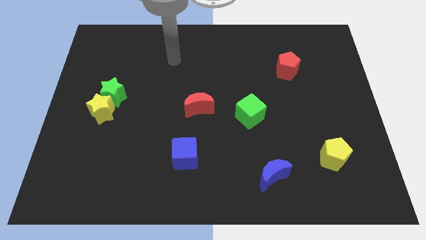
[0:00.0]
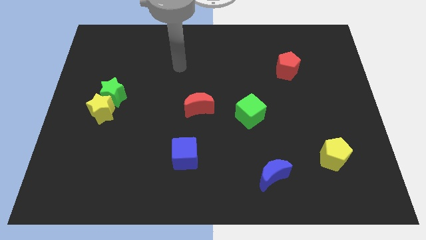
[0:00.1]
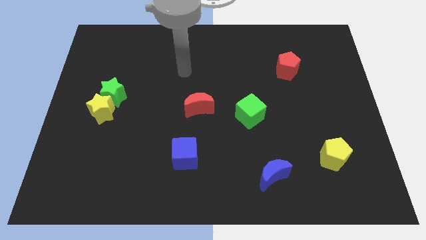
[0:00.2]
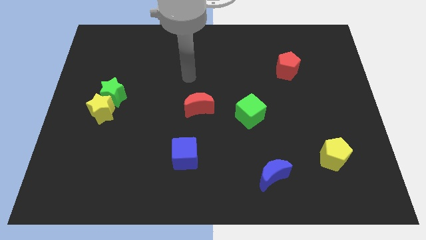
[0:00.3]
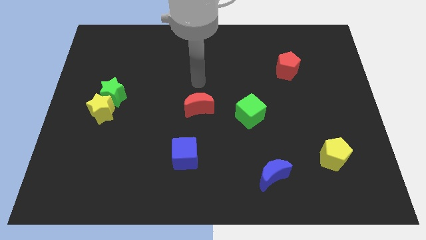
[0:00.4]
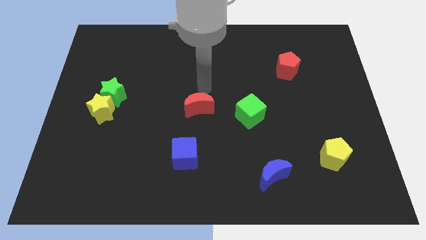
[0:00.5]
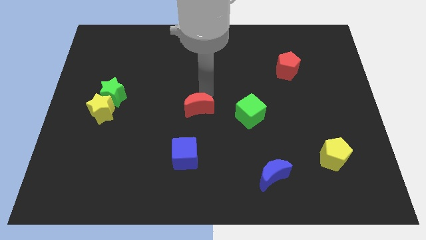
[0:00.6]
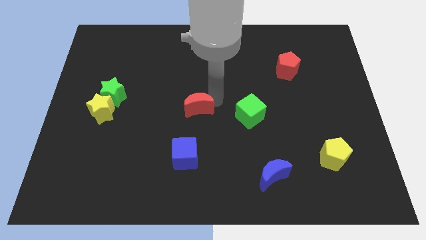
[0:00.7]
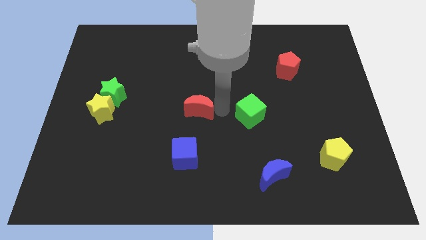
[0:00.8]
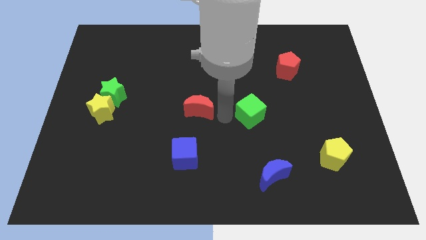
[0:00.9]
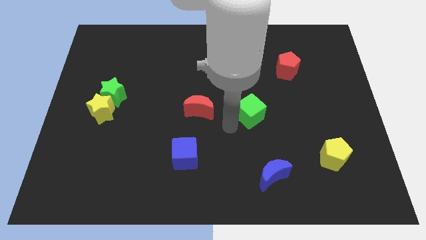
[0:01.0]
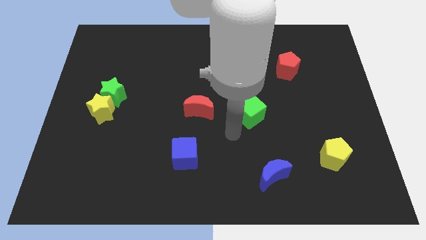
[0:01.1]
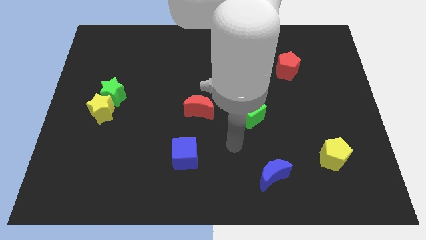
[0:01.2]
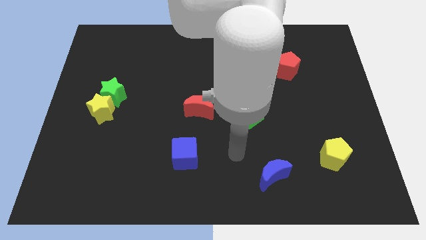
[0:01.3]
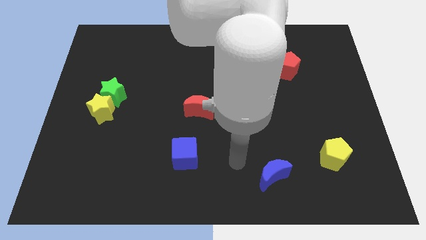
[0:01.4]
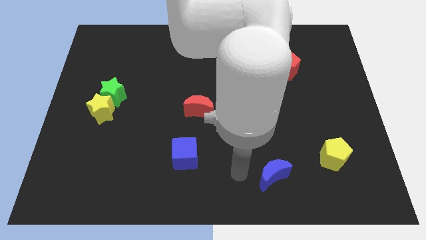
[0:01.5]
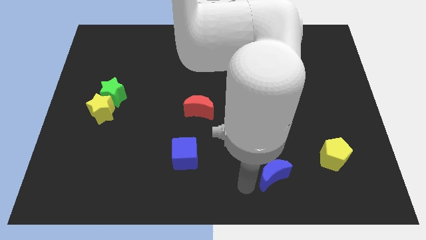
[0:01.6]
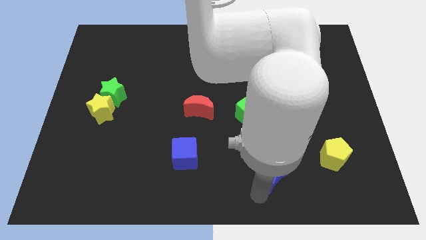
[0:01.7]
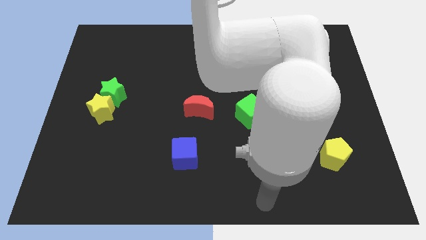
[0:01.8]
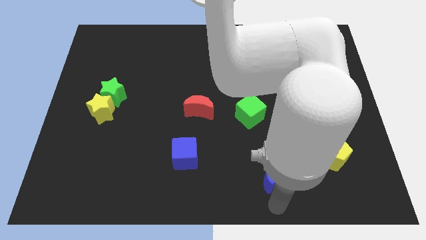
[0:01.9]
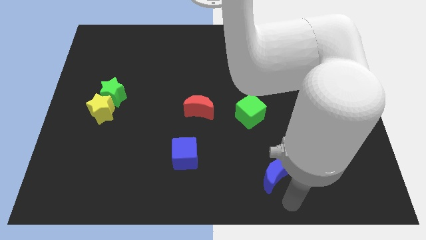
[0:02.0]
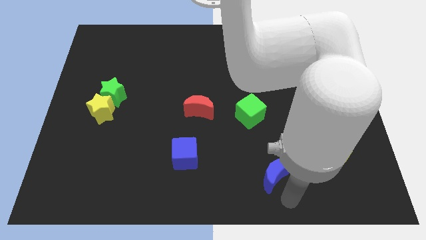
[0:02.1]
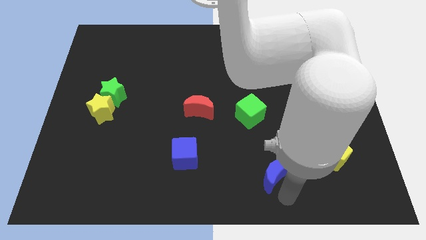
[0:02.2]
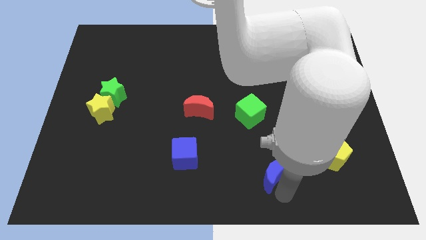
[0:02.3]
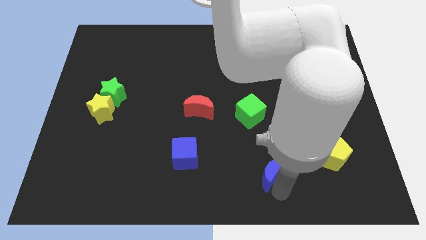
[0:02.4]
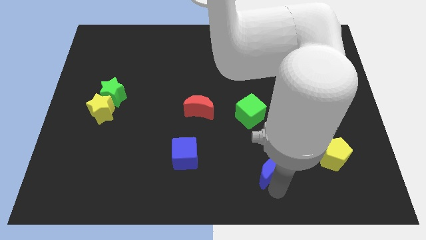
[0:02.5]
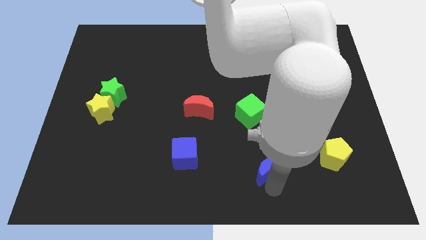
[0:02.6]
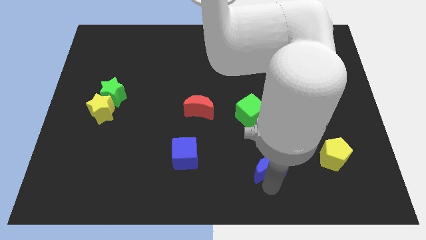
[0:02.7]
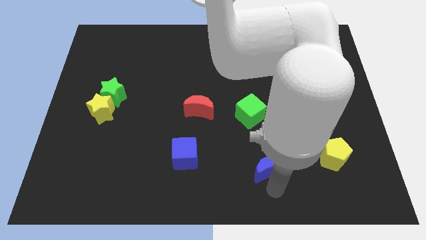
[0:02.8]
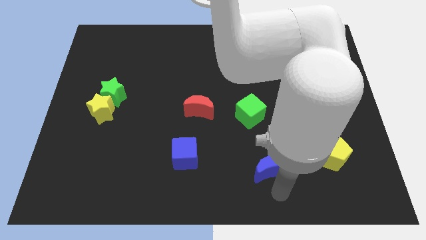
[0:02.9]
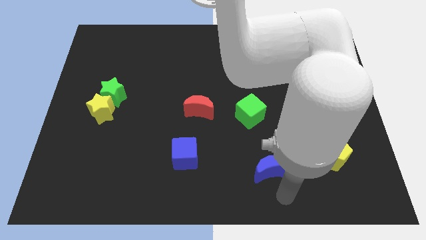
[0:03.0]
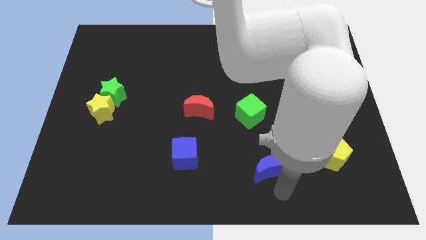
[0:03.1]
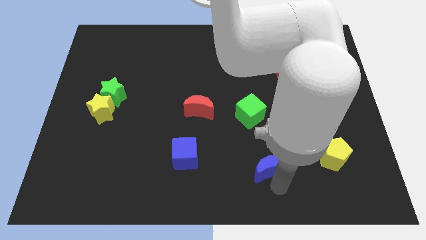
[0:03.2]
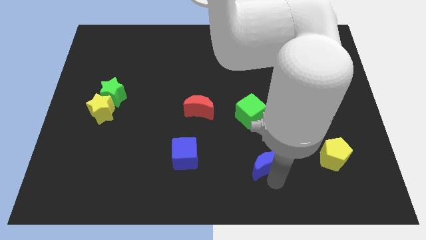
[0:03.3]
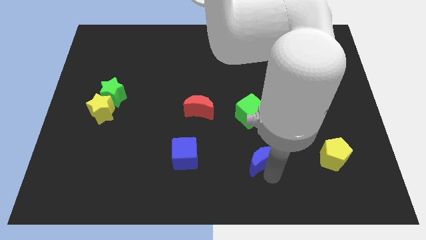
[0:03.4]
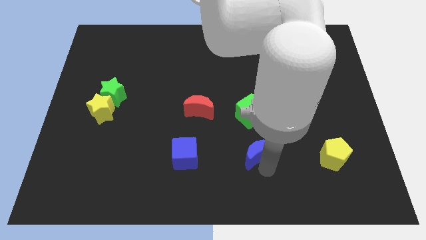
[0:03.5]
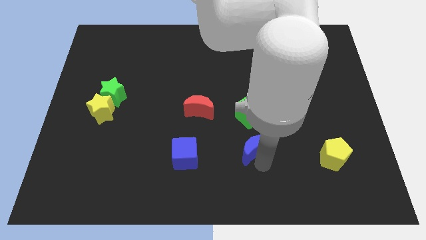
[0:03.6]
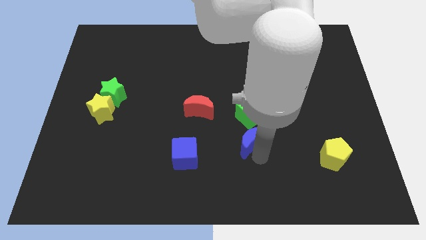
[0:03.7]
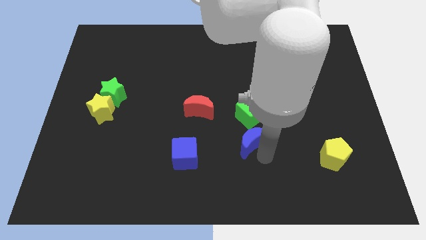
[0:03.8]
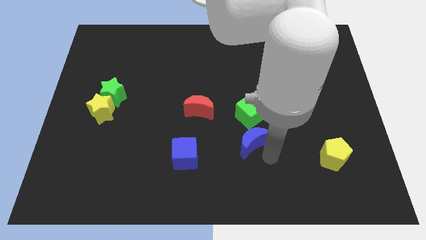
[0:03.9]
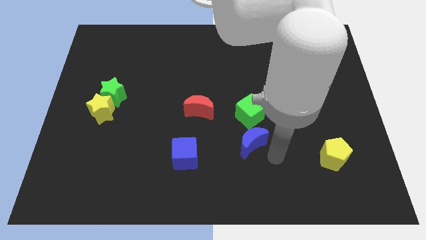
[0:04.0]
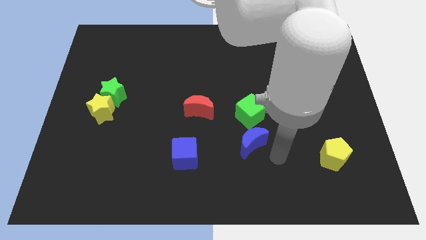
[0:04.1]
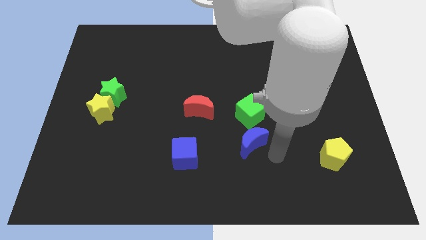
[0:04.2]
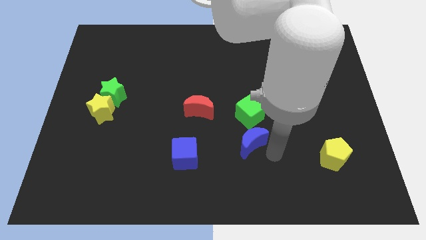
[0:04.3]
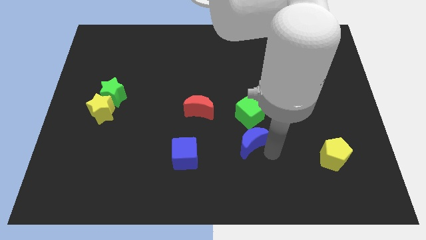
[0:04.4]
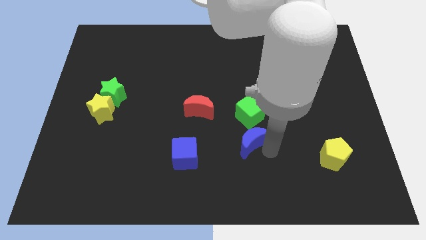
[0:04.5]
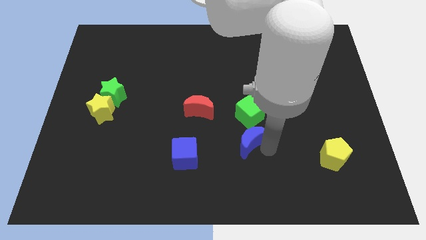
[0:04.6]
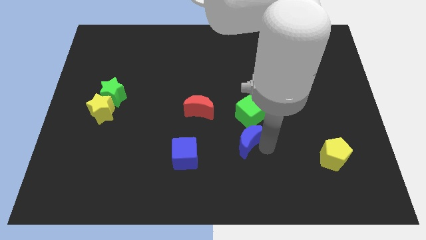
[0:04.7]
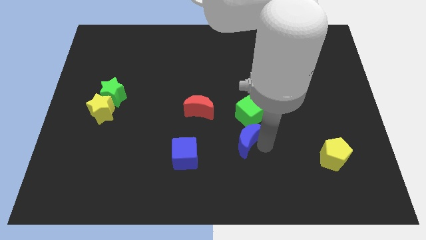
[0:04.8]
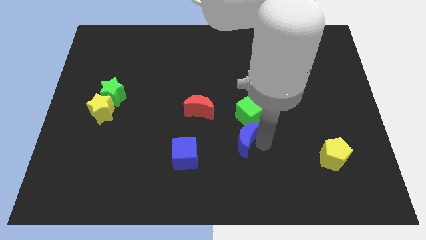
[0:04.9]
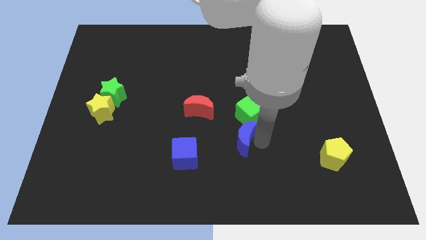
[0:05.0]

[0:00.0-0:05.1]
put the blue moon diagonally down and to the right of the red moon

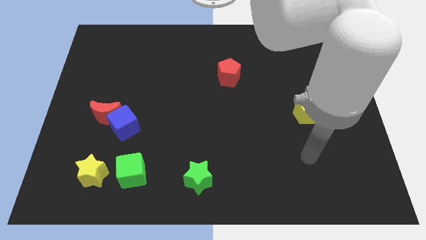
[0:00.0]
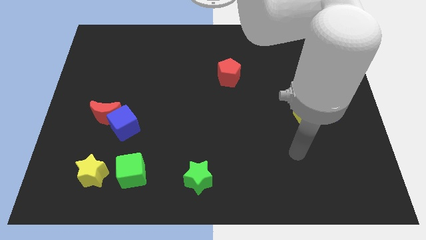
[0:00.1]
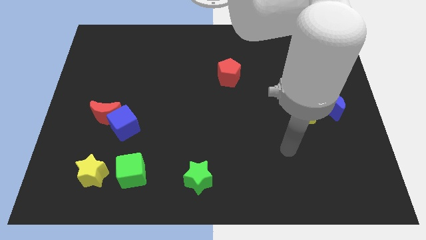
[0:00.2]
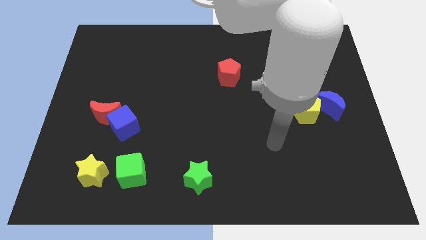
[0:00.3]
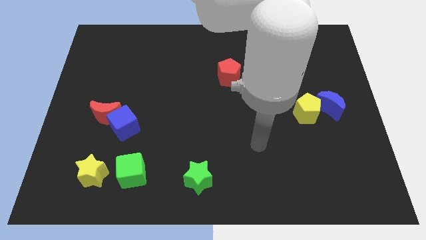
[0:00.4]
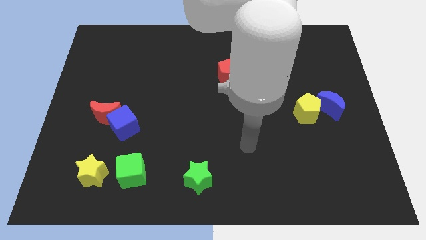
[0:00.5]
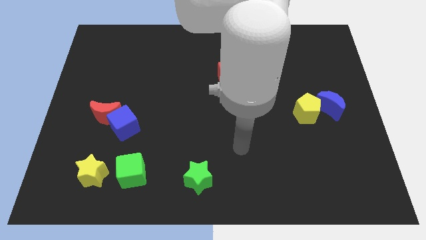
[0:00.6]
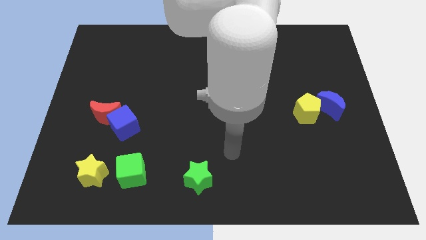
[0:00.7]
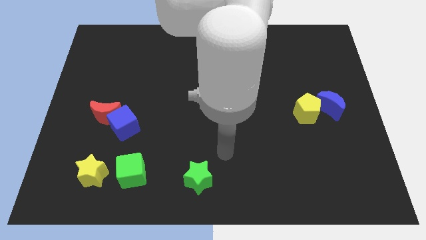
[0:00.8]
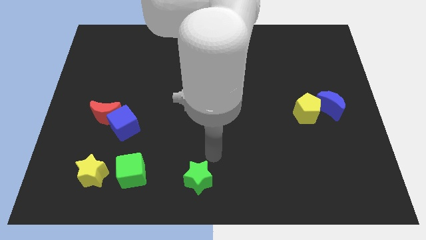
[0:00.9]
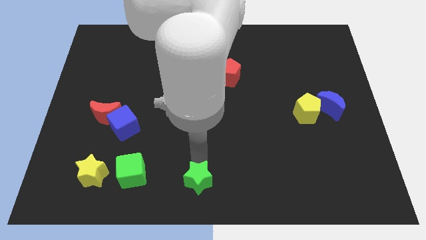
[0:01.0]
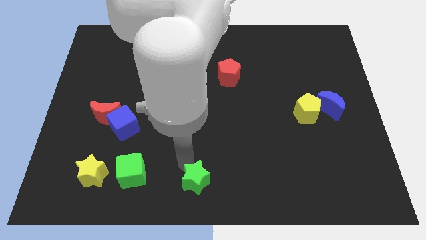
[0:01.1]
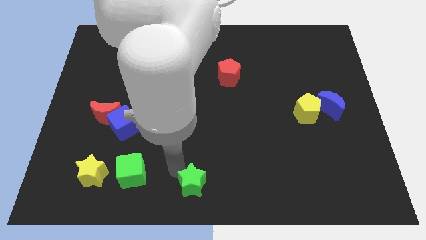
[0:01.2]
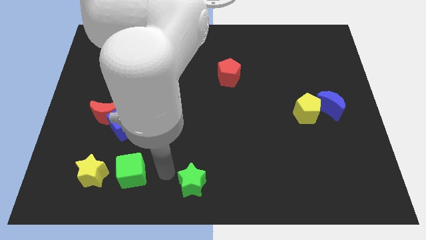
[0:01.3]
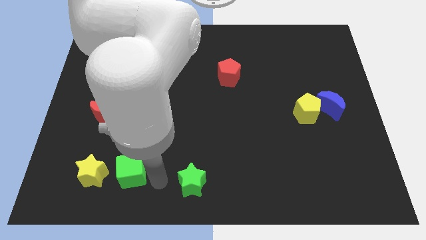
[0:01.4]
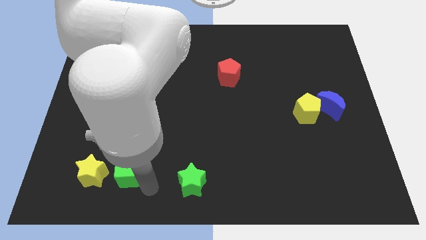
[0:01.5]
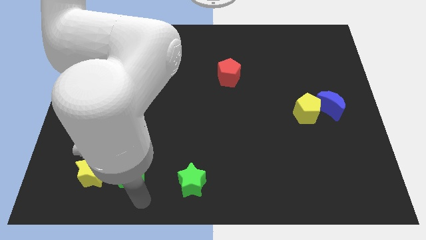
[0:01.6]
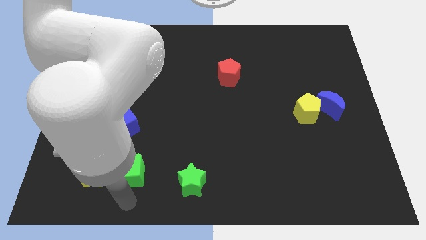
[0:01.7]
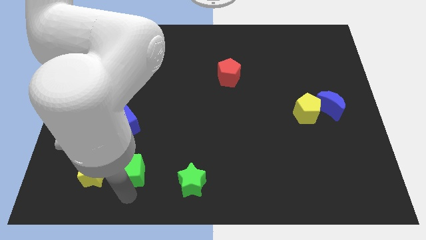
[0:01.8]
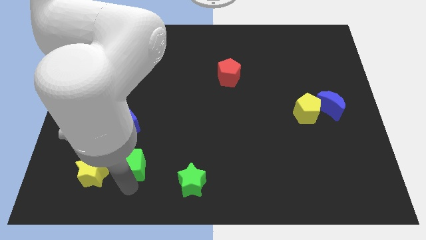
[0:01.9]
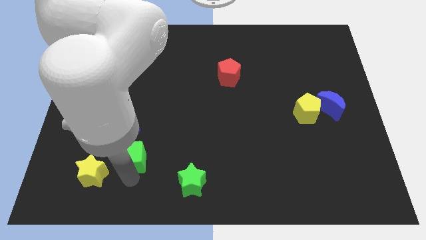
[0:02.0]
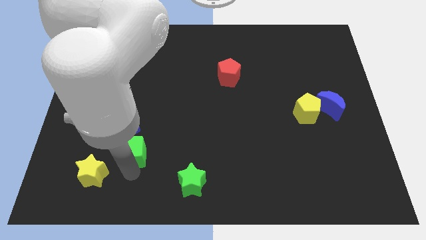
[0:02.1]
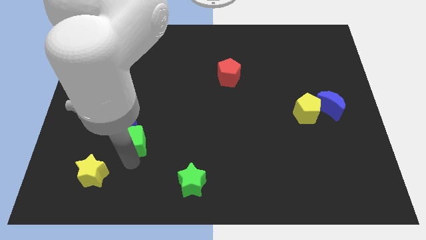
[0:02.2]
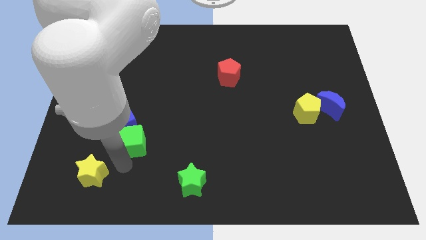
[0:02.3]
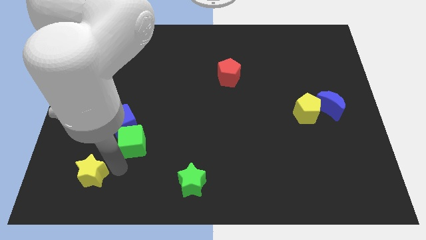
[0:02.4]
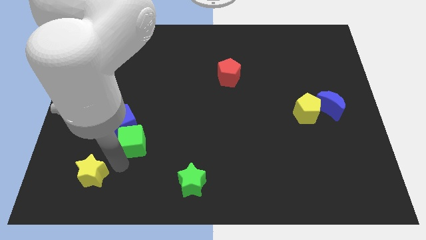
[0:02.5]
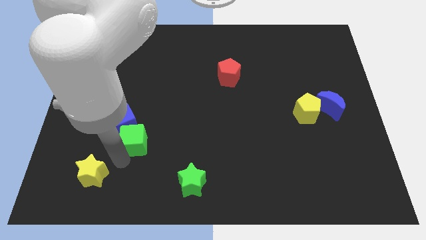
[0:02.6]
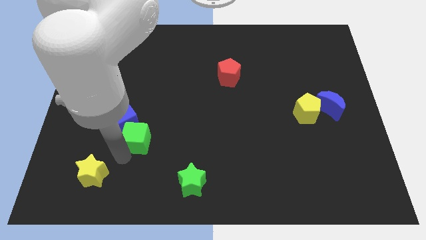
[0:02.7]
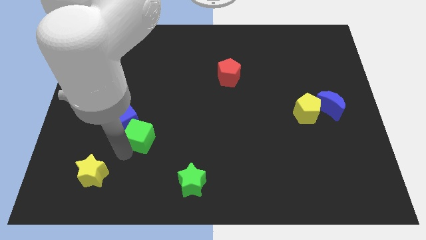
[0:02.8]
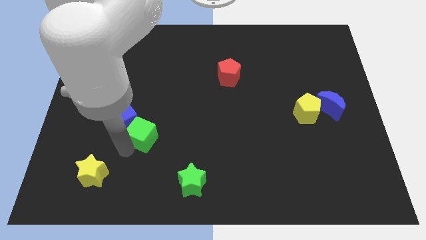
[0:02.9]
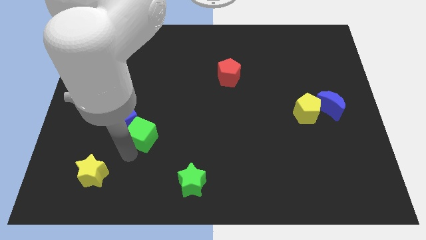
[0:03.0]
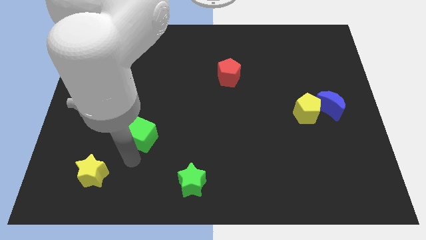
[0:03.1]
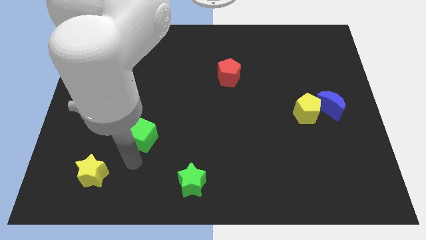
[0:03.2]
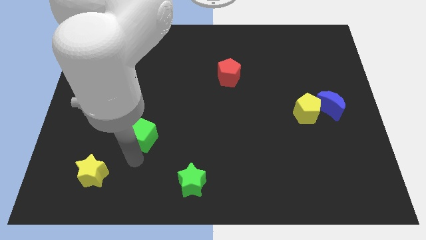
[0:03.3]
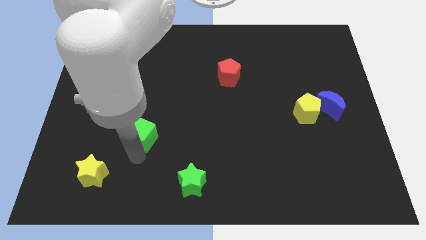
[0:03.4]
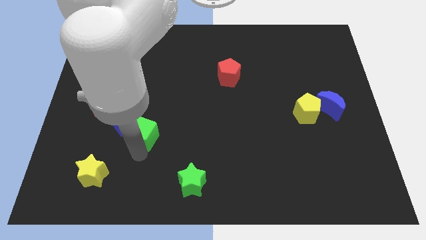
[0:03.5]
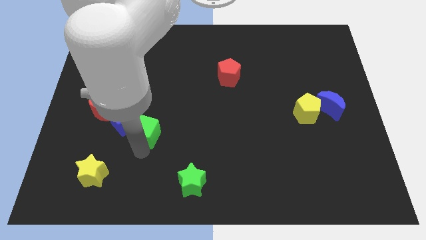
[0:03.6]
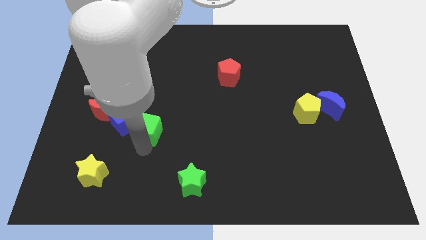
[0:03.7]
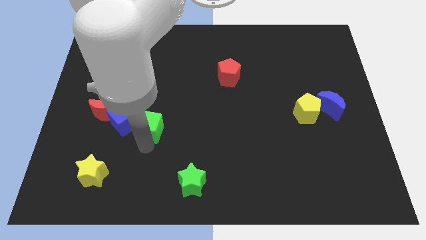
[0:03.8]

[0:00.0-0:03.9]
push the green cube right of the red moon
